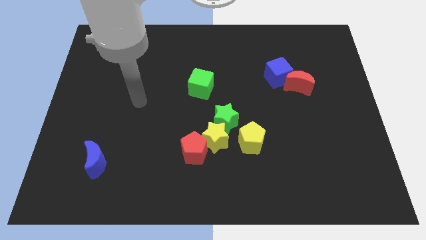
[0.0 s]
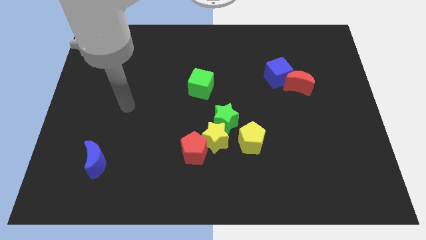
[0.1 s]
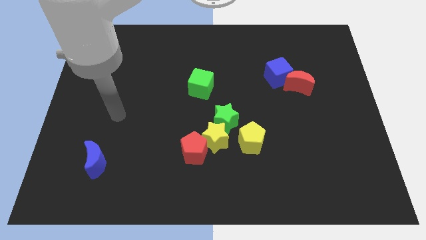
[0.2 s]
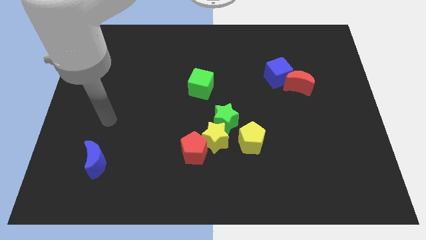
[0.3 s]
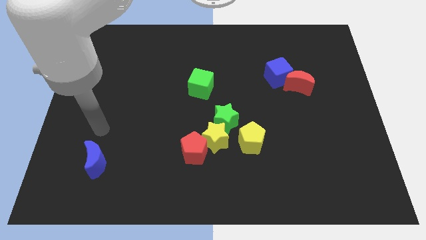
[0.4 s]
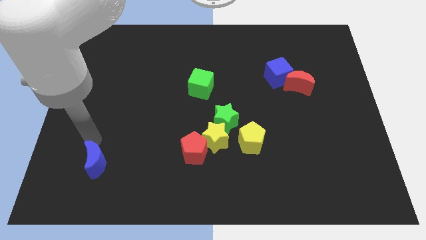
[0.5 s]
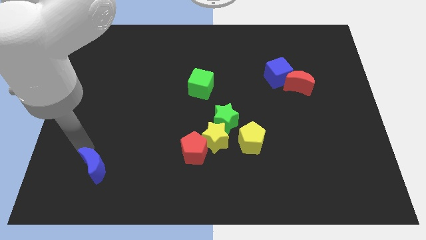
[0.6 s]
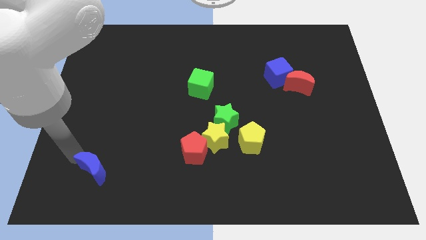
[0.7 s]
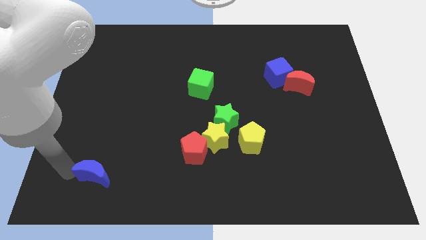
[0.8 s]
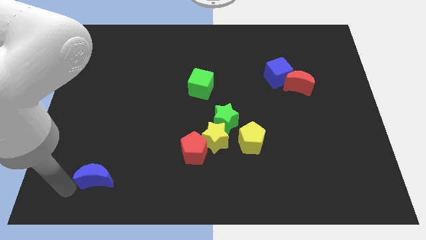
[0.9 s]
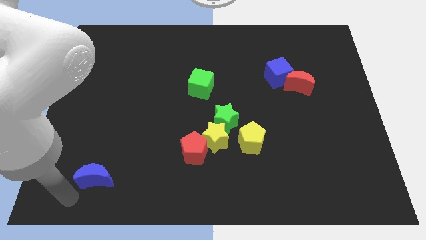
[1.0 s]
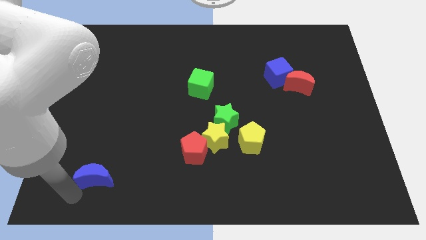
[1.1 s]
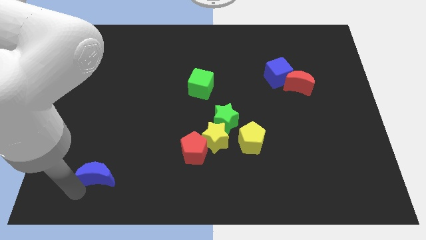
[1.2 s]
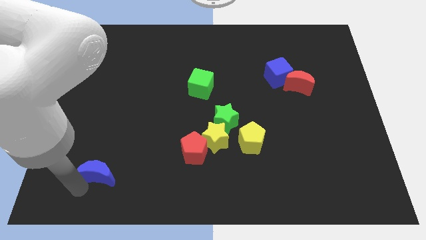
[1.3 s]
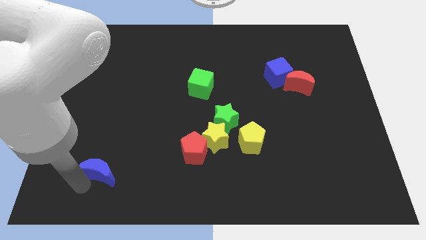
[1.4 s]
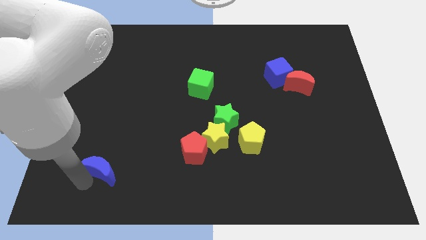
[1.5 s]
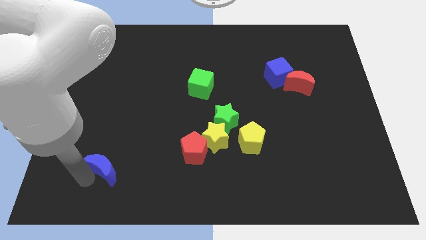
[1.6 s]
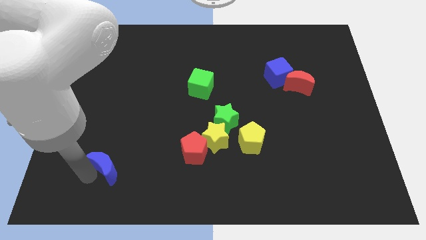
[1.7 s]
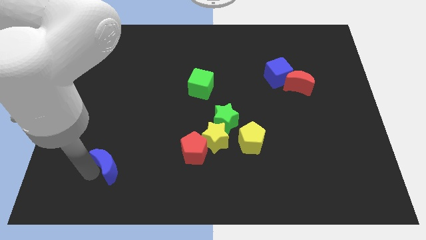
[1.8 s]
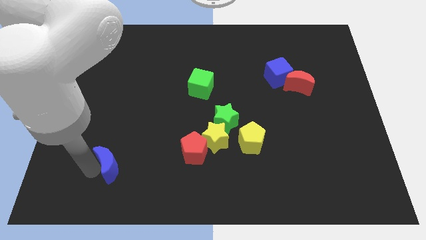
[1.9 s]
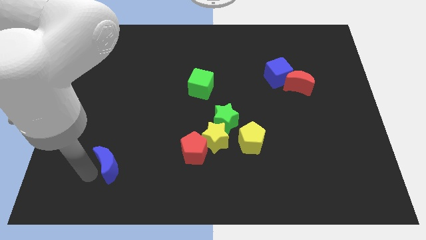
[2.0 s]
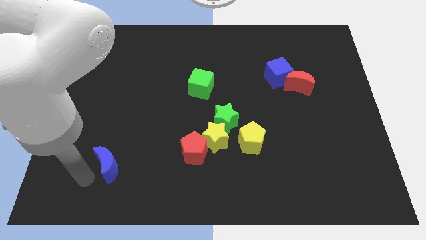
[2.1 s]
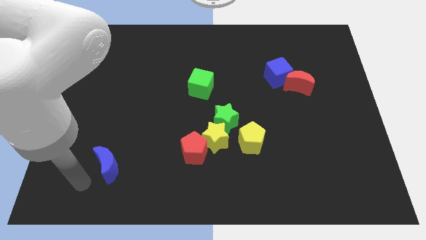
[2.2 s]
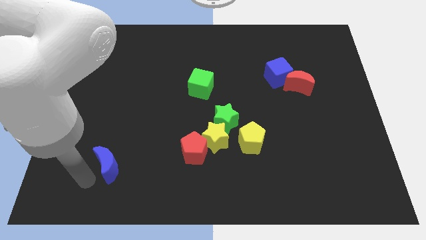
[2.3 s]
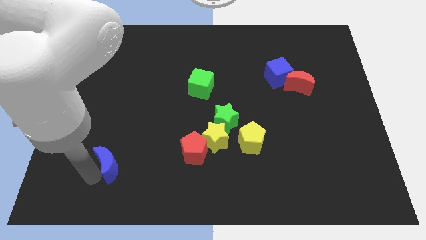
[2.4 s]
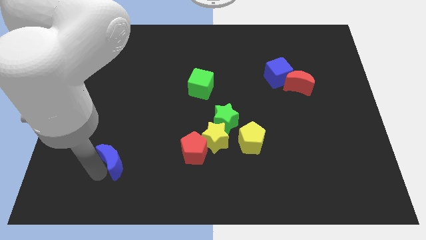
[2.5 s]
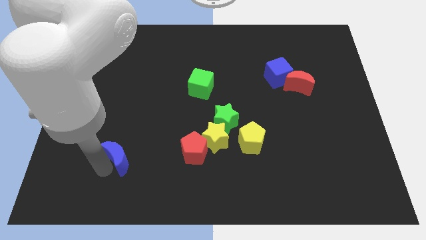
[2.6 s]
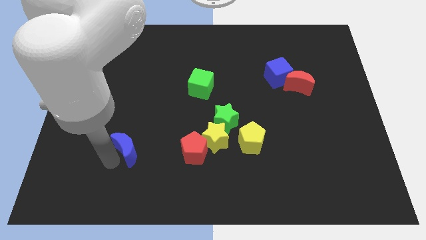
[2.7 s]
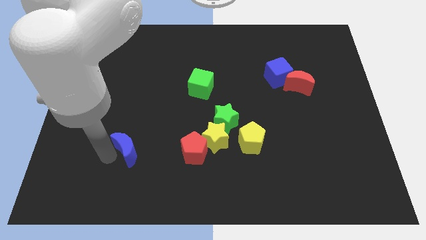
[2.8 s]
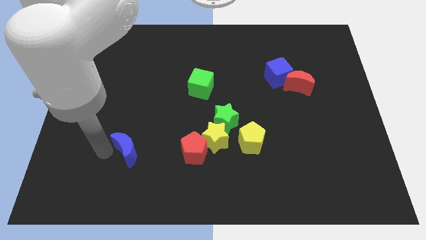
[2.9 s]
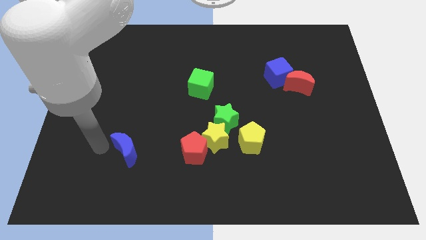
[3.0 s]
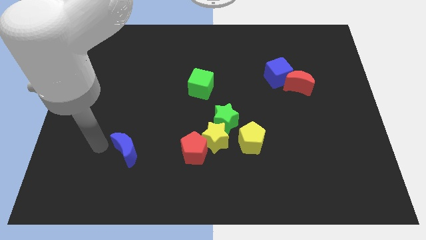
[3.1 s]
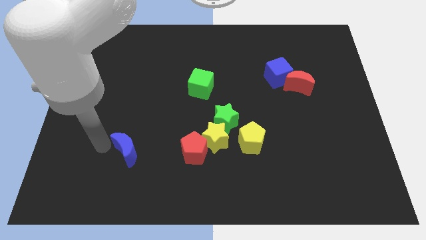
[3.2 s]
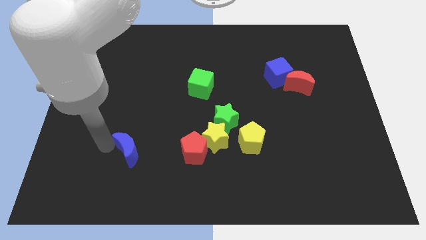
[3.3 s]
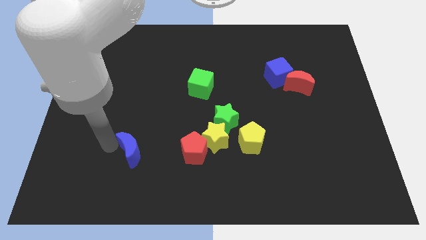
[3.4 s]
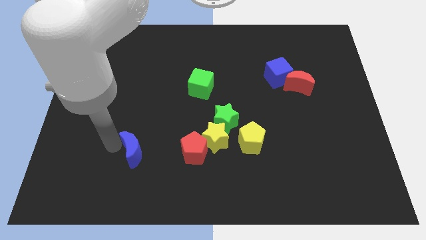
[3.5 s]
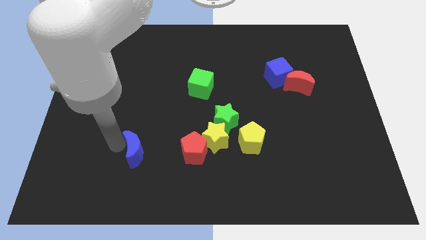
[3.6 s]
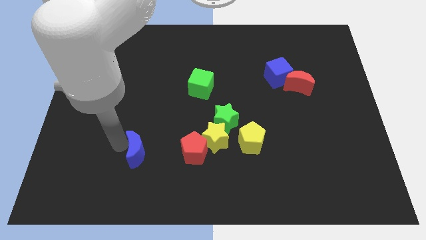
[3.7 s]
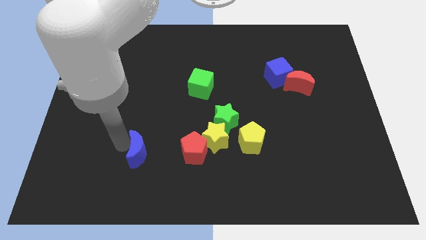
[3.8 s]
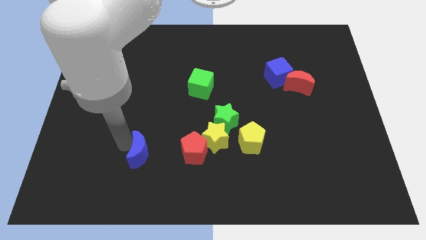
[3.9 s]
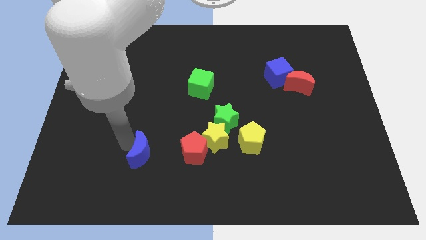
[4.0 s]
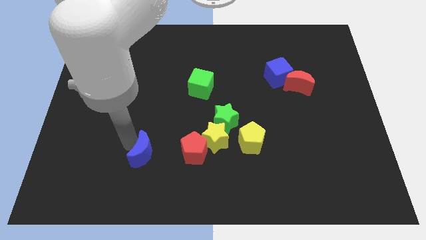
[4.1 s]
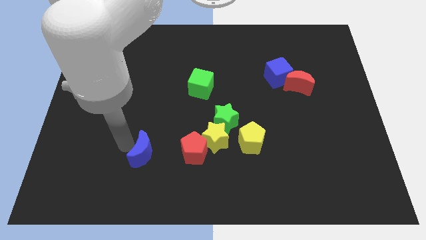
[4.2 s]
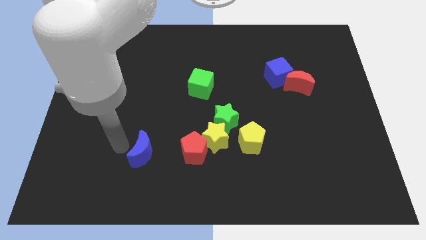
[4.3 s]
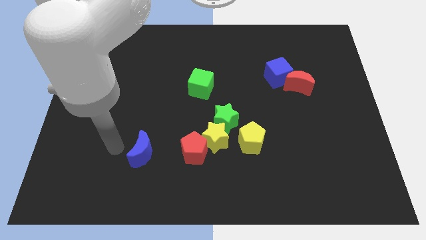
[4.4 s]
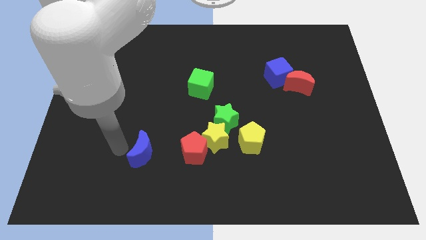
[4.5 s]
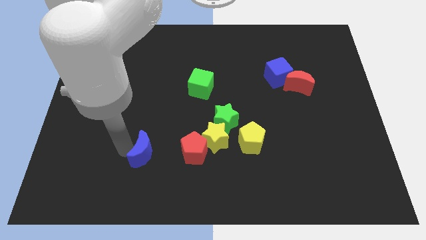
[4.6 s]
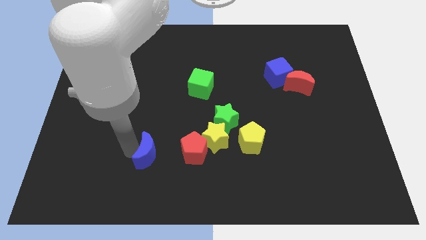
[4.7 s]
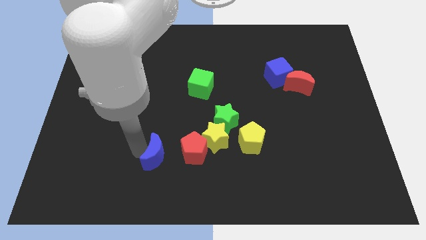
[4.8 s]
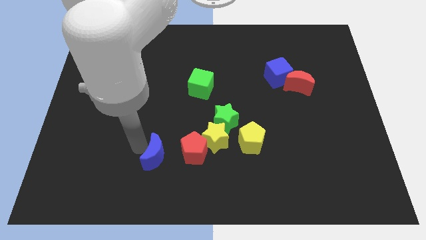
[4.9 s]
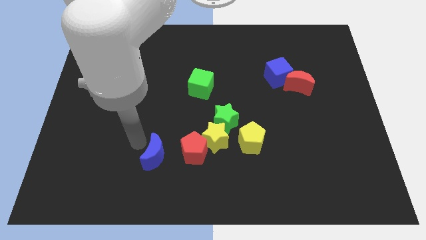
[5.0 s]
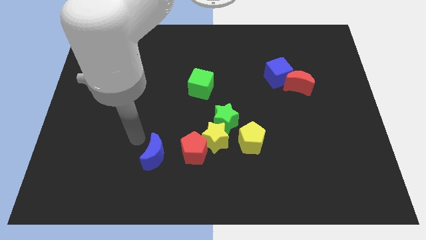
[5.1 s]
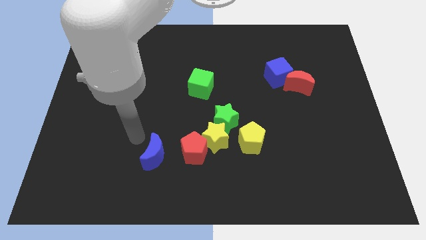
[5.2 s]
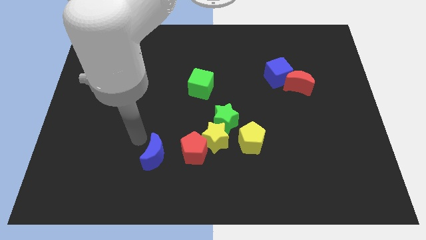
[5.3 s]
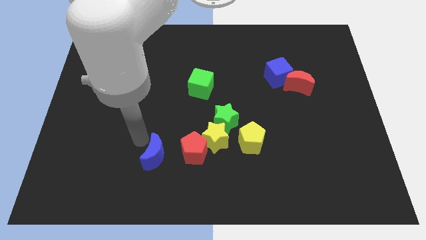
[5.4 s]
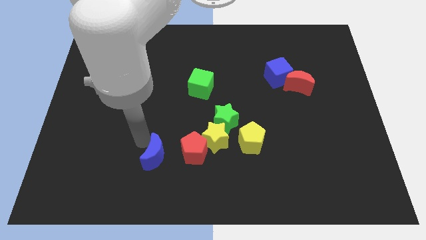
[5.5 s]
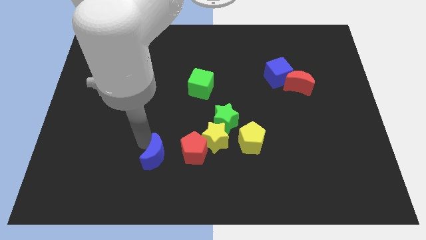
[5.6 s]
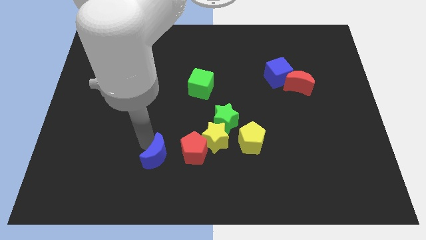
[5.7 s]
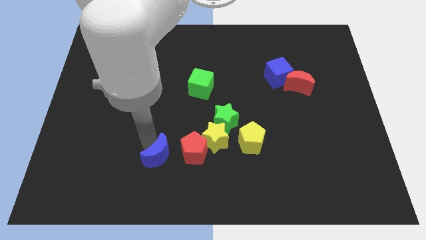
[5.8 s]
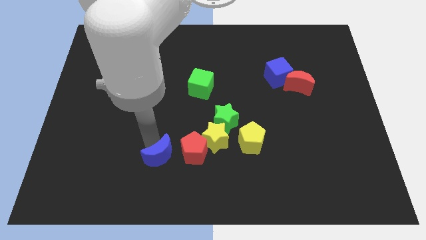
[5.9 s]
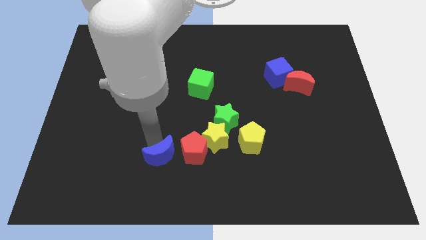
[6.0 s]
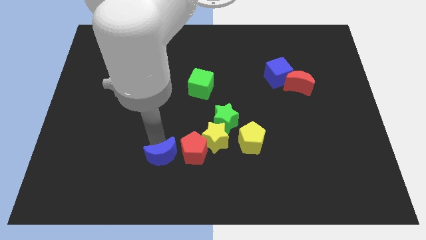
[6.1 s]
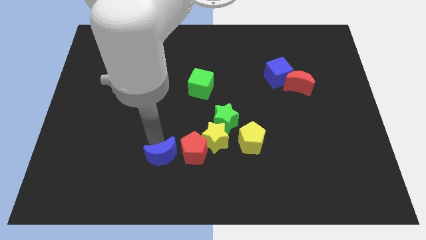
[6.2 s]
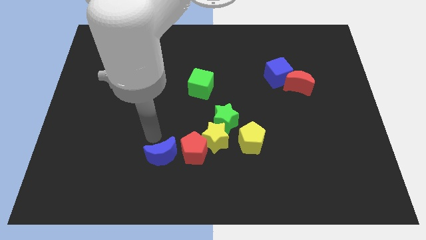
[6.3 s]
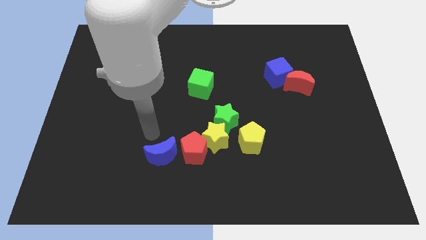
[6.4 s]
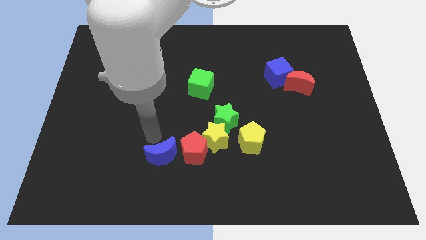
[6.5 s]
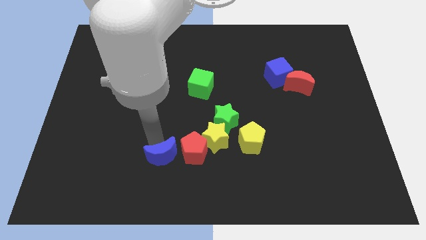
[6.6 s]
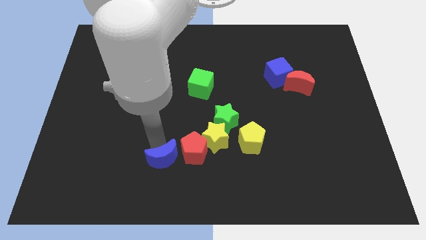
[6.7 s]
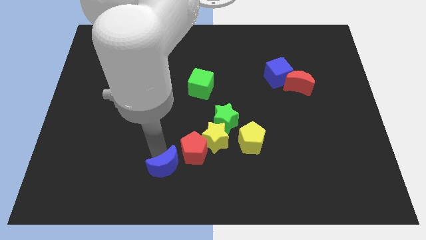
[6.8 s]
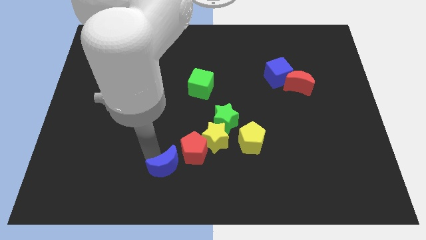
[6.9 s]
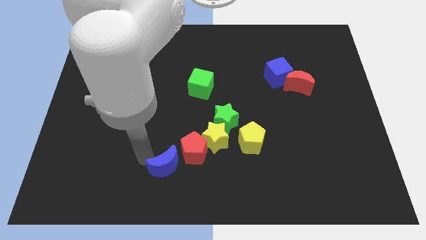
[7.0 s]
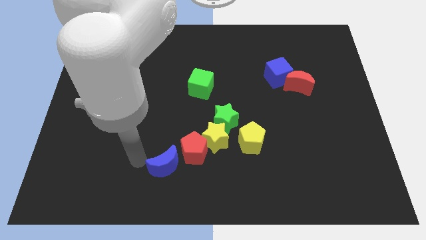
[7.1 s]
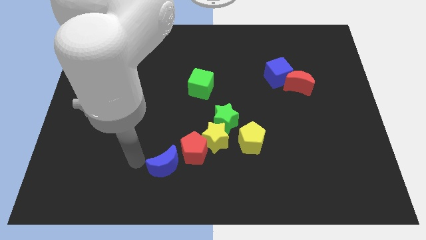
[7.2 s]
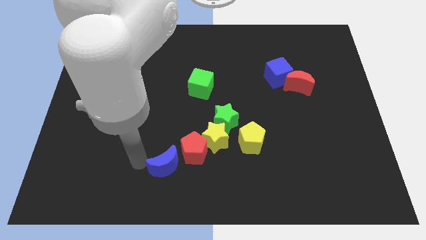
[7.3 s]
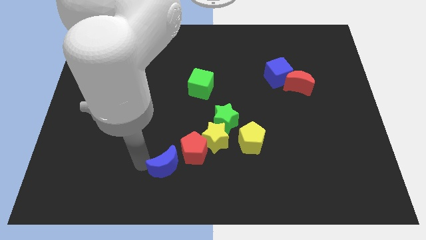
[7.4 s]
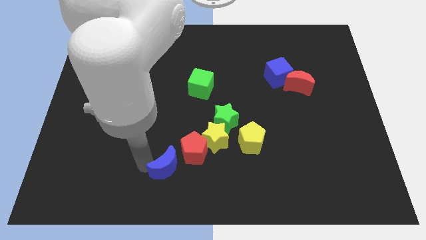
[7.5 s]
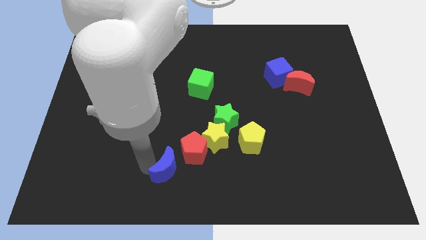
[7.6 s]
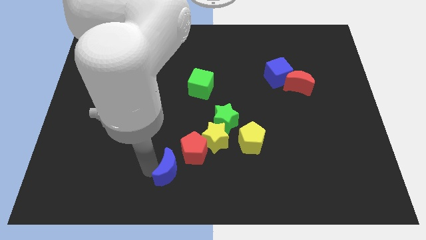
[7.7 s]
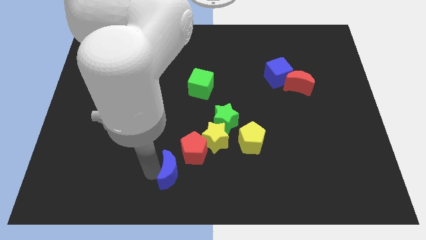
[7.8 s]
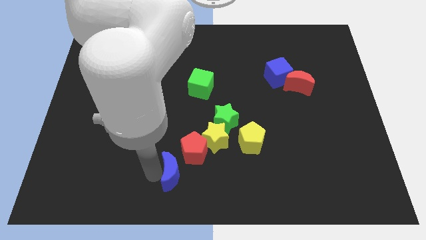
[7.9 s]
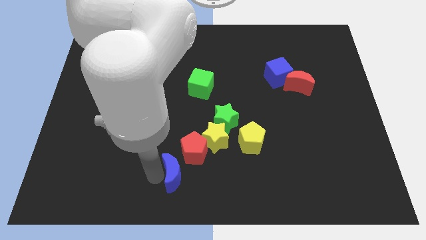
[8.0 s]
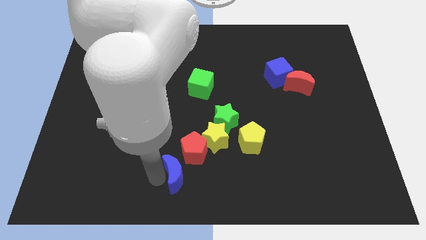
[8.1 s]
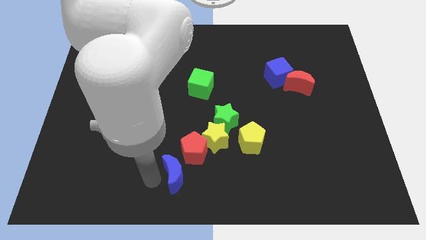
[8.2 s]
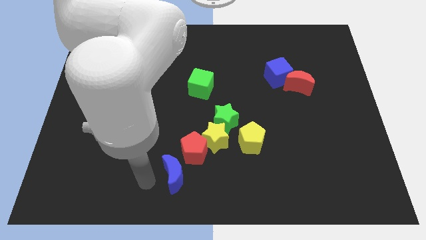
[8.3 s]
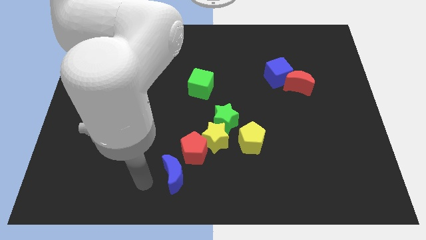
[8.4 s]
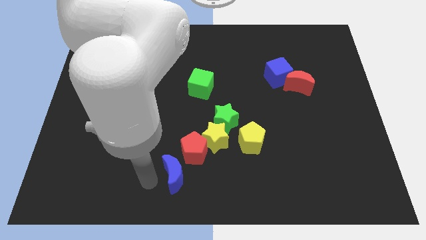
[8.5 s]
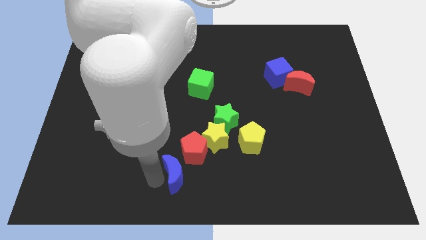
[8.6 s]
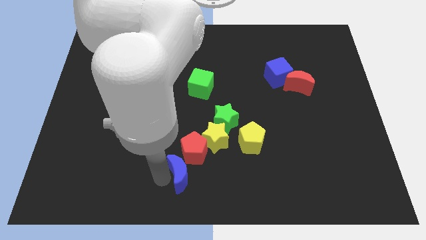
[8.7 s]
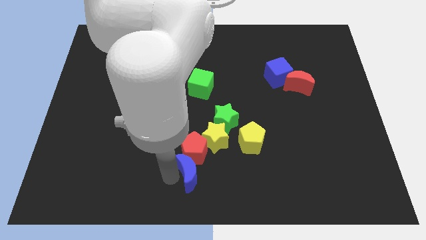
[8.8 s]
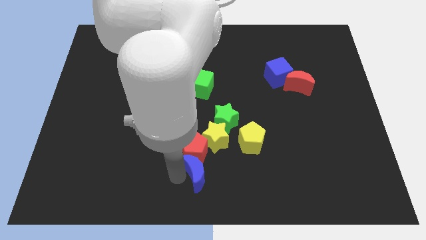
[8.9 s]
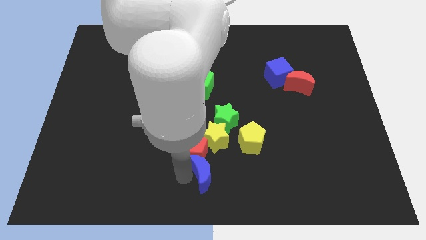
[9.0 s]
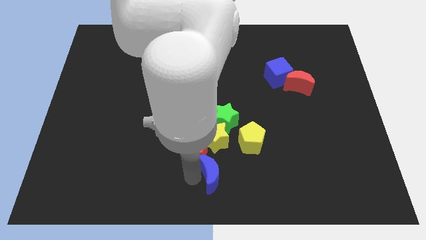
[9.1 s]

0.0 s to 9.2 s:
push the blue moon below the green star
